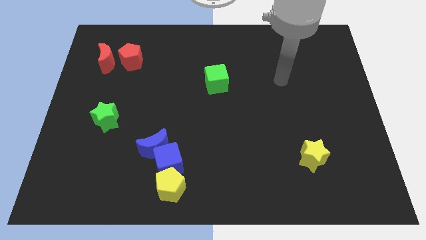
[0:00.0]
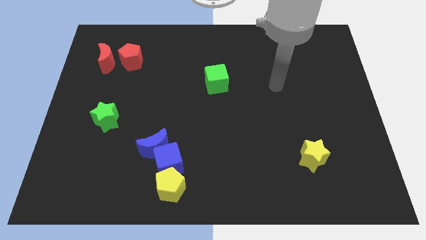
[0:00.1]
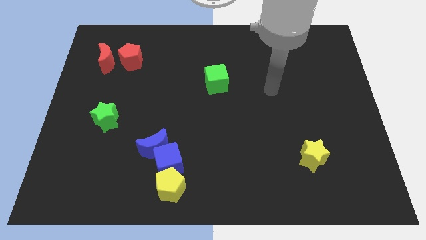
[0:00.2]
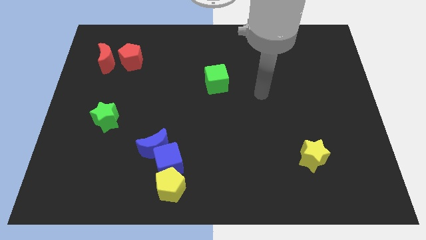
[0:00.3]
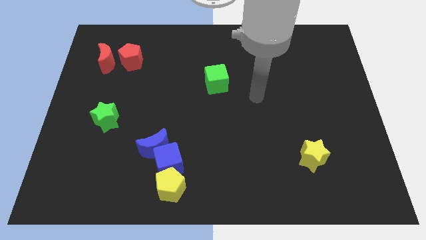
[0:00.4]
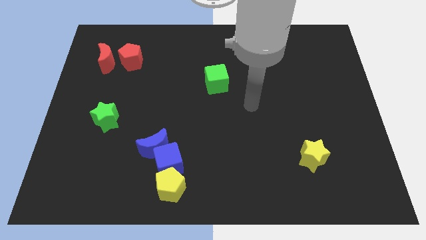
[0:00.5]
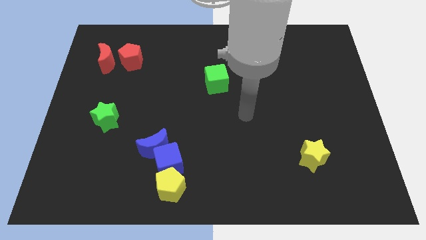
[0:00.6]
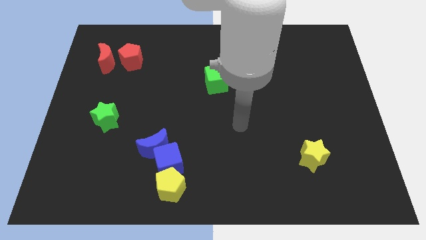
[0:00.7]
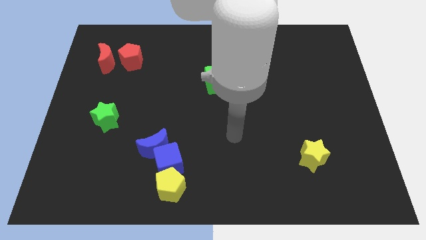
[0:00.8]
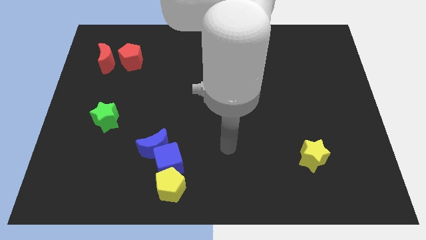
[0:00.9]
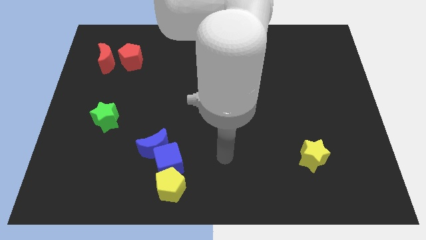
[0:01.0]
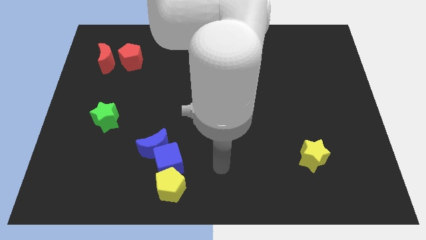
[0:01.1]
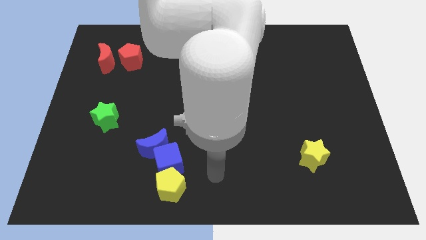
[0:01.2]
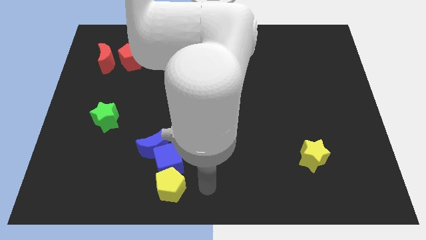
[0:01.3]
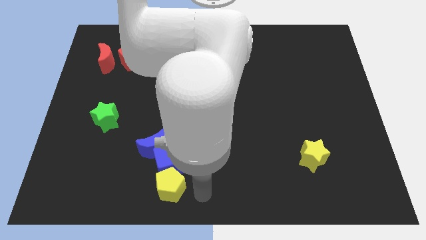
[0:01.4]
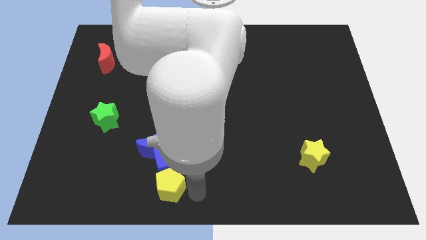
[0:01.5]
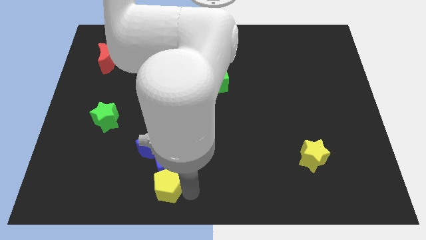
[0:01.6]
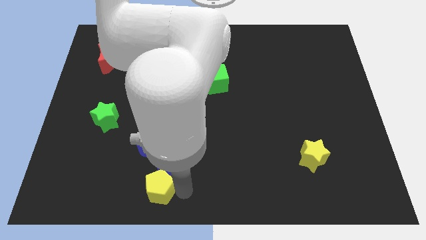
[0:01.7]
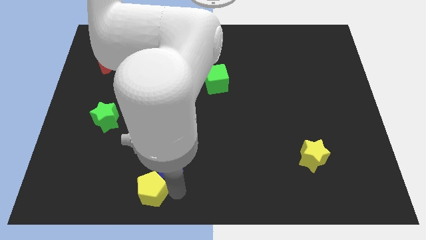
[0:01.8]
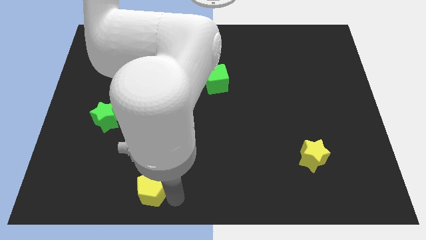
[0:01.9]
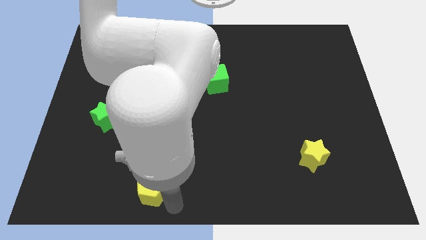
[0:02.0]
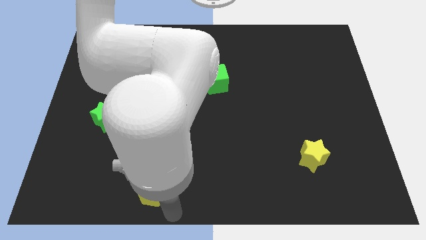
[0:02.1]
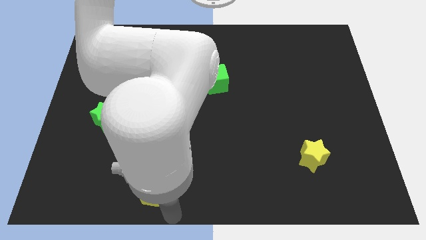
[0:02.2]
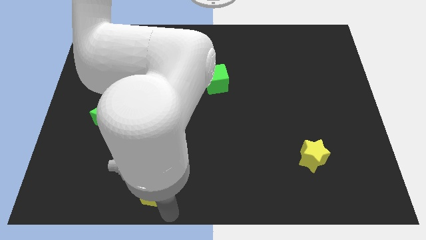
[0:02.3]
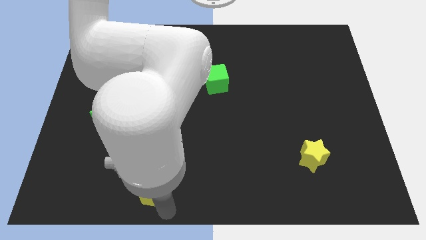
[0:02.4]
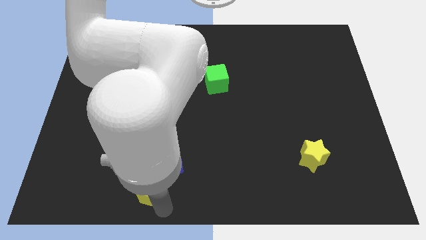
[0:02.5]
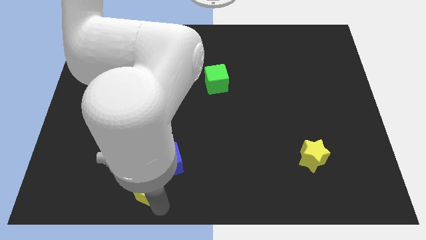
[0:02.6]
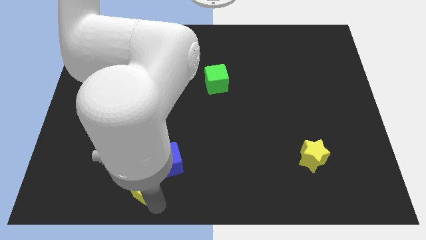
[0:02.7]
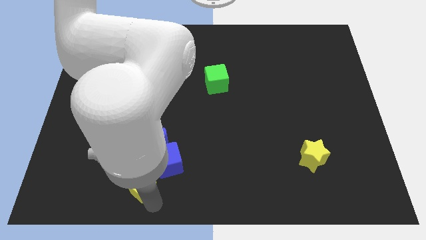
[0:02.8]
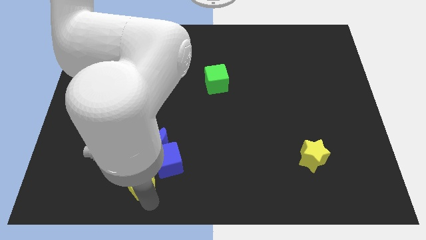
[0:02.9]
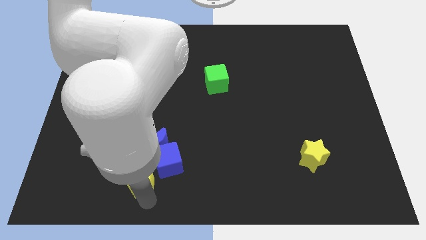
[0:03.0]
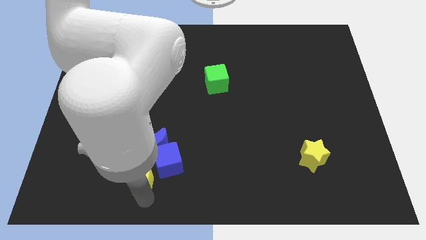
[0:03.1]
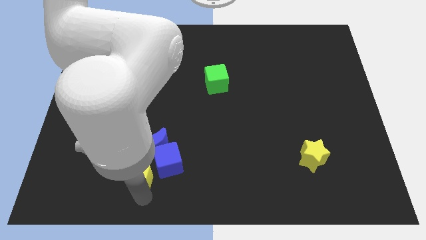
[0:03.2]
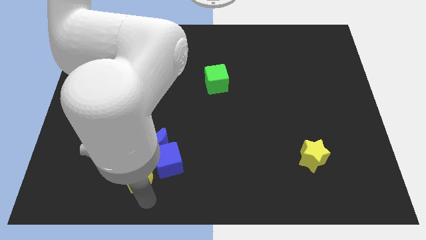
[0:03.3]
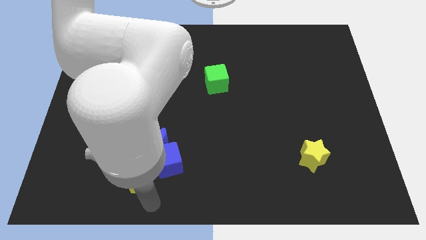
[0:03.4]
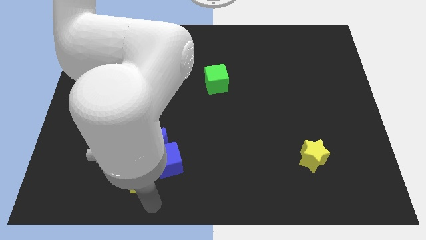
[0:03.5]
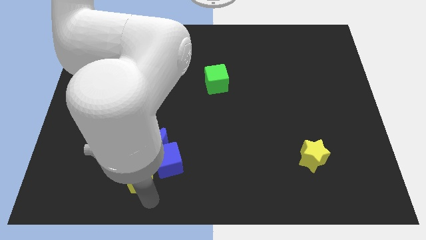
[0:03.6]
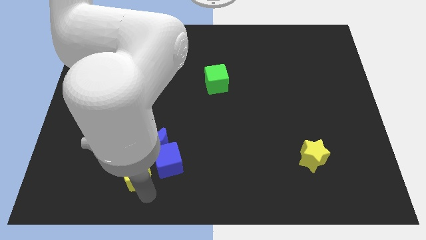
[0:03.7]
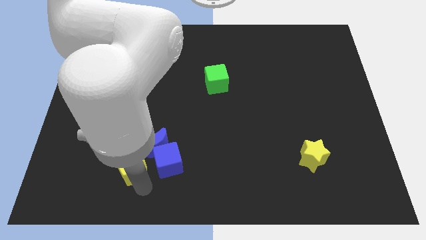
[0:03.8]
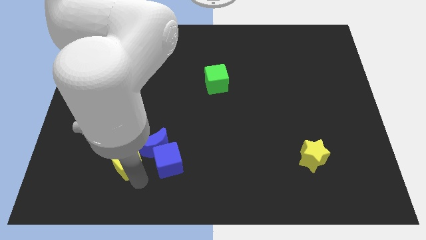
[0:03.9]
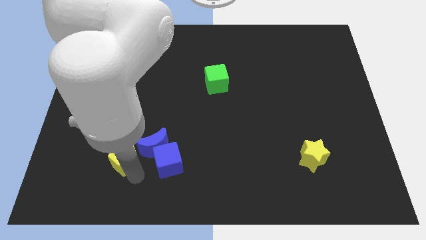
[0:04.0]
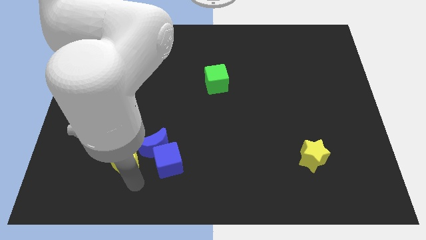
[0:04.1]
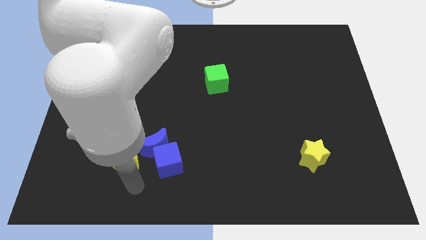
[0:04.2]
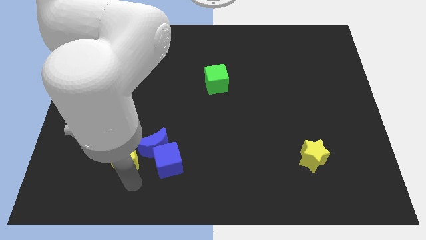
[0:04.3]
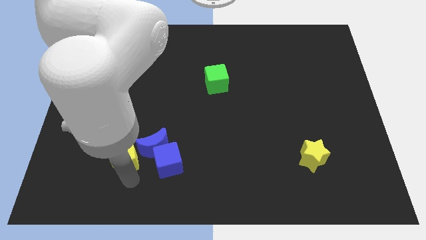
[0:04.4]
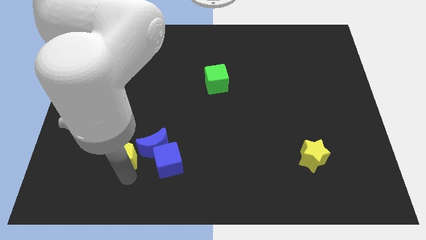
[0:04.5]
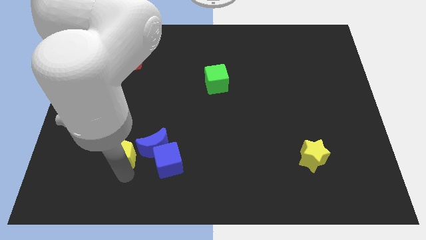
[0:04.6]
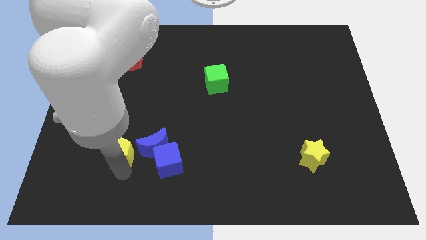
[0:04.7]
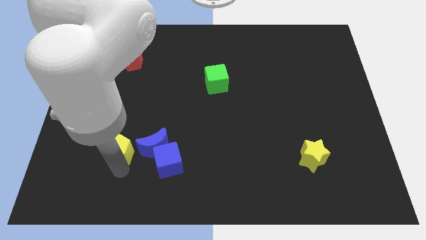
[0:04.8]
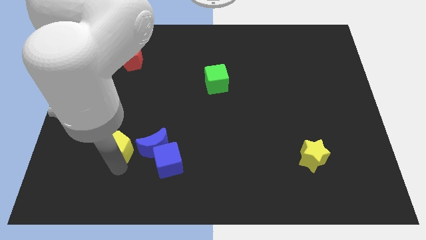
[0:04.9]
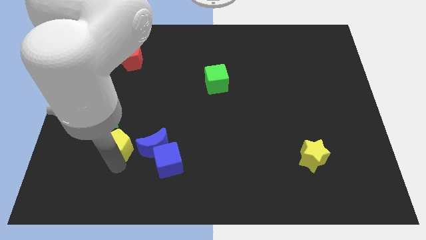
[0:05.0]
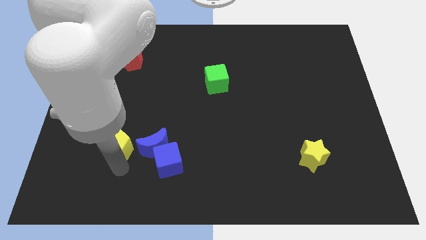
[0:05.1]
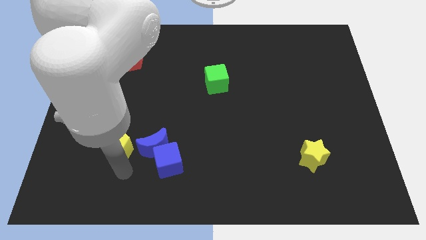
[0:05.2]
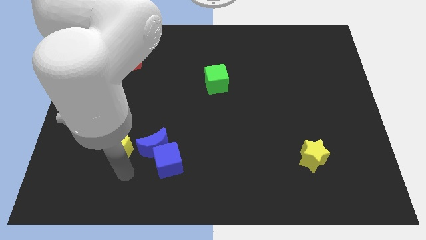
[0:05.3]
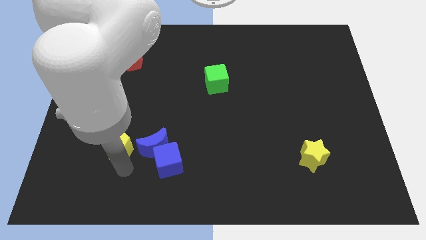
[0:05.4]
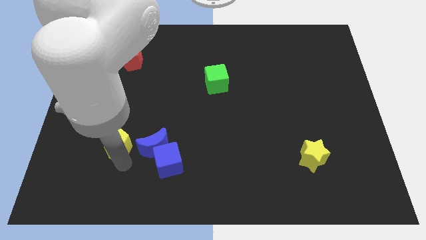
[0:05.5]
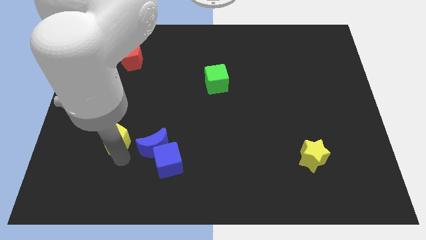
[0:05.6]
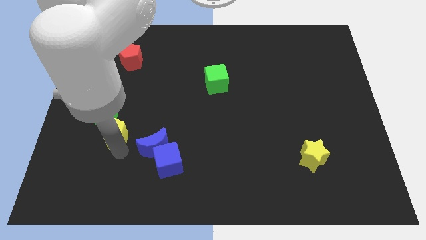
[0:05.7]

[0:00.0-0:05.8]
push the yellow pentagon to the green star
